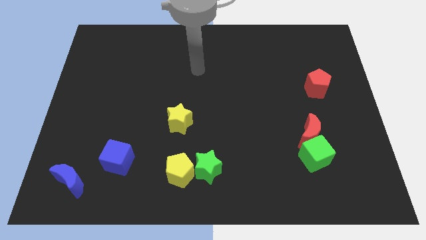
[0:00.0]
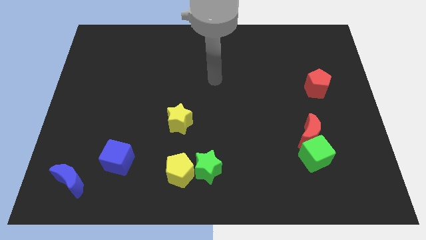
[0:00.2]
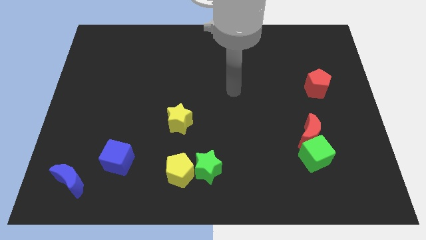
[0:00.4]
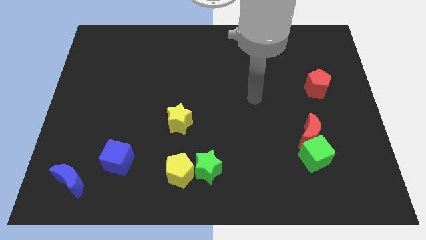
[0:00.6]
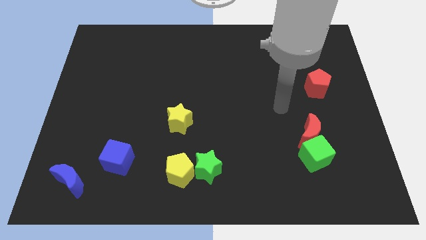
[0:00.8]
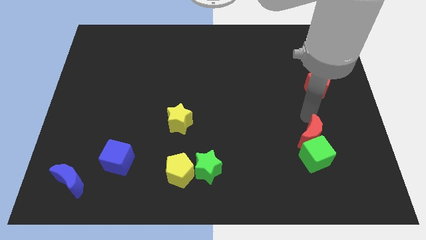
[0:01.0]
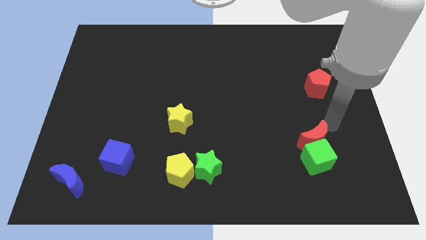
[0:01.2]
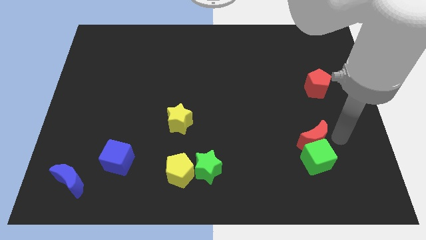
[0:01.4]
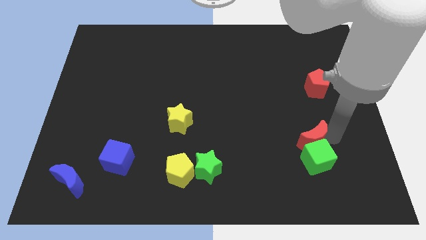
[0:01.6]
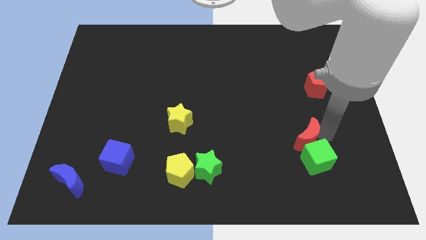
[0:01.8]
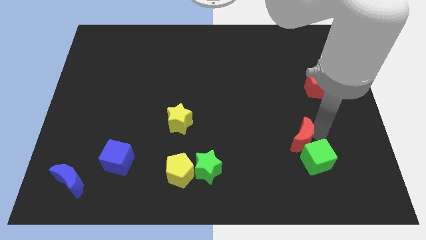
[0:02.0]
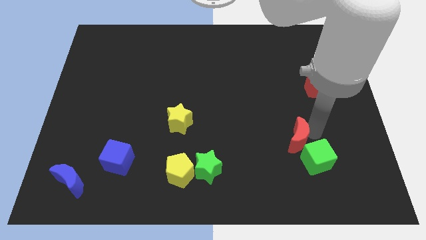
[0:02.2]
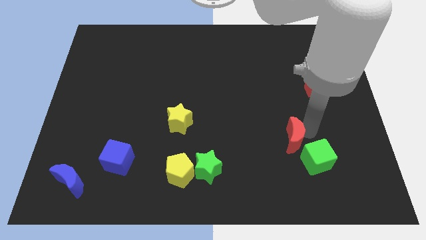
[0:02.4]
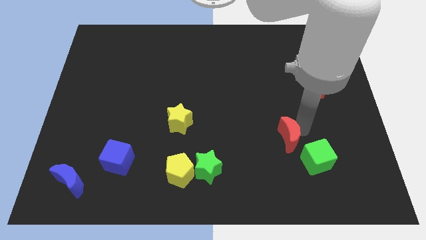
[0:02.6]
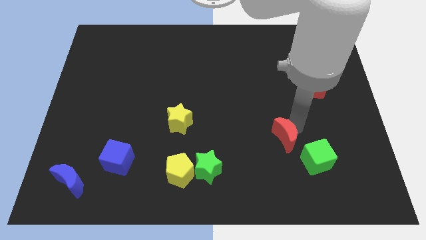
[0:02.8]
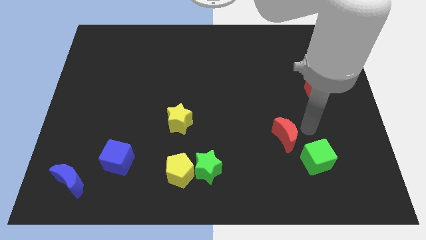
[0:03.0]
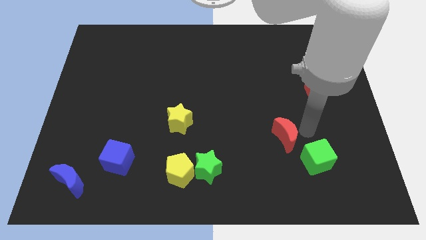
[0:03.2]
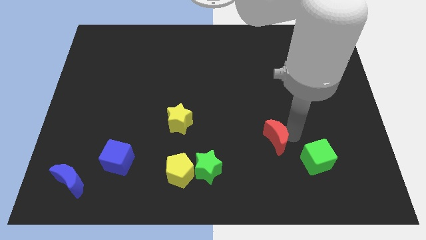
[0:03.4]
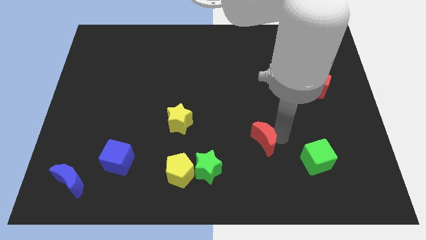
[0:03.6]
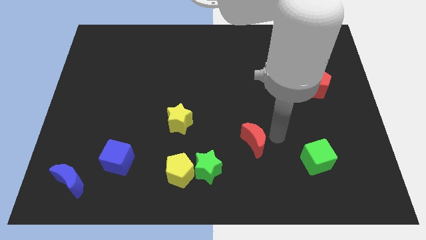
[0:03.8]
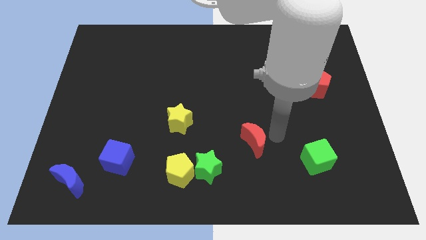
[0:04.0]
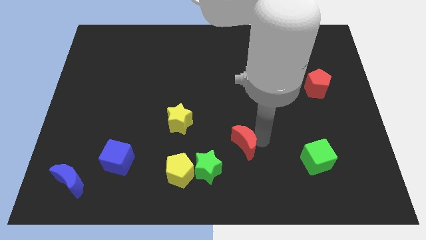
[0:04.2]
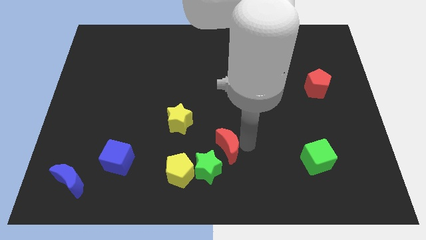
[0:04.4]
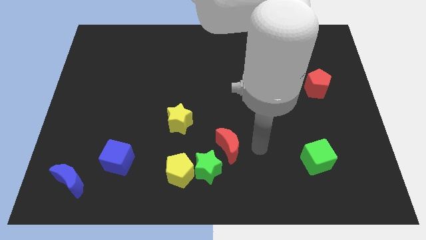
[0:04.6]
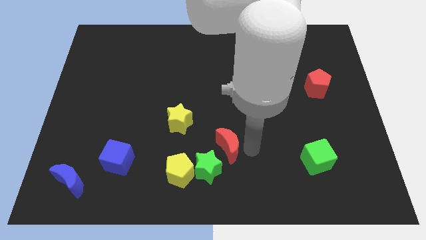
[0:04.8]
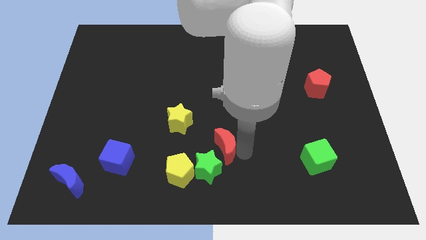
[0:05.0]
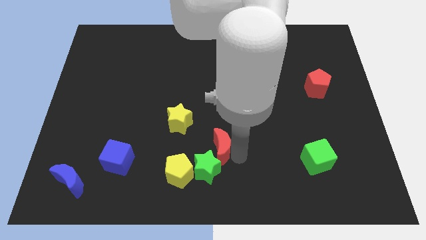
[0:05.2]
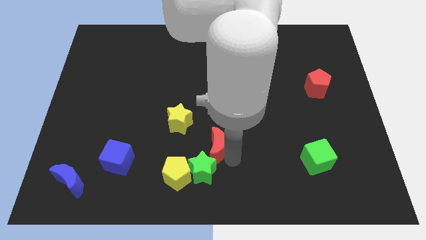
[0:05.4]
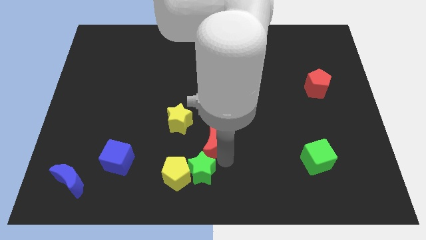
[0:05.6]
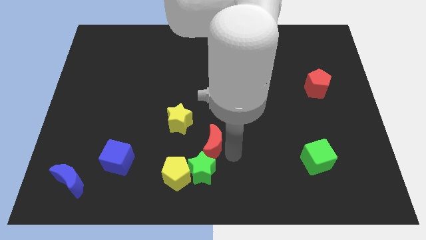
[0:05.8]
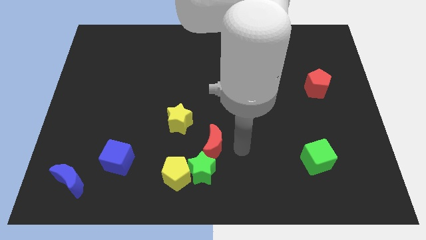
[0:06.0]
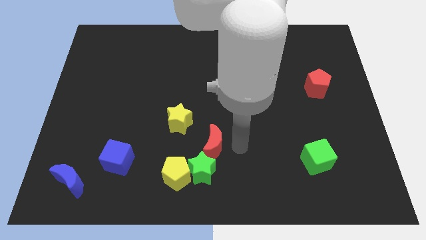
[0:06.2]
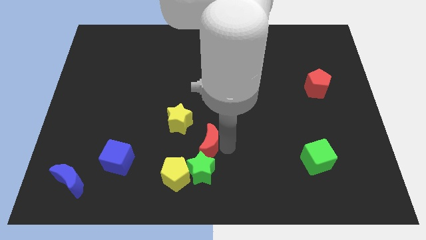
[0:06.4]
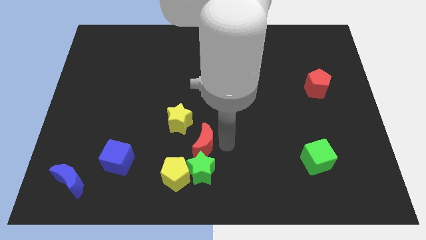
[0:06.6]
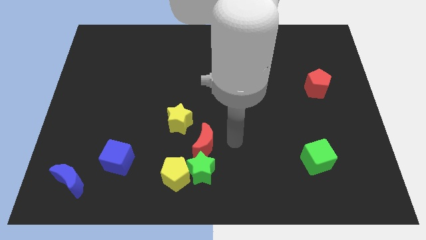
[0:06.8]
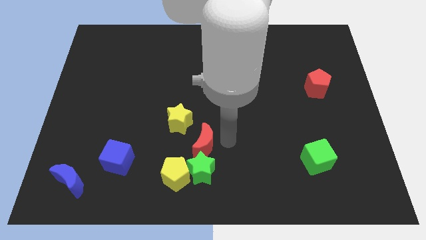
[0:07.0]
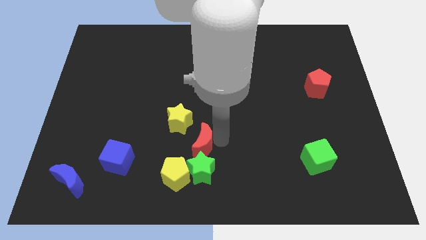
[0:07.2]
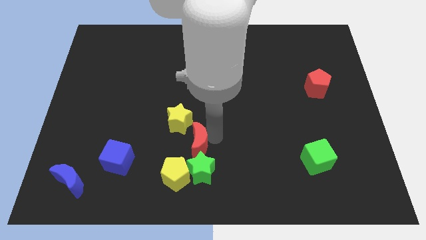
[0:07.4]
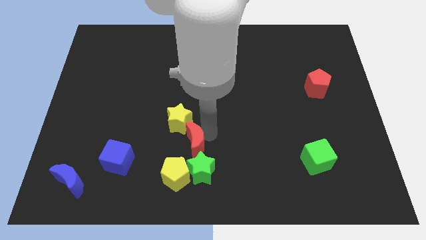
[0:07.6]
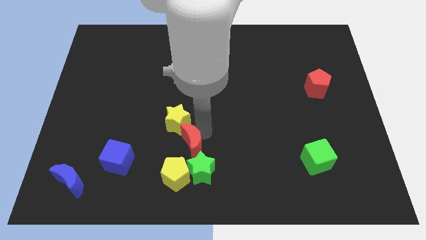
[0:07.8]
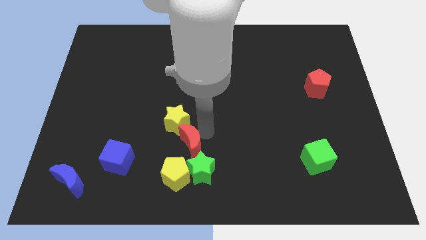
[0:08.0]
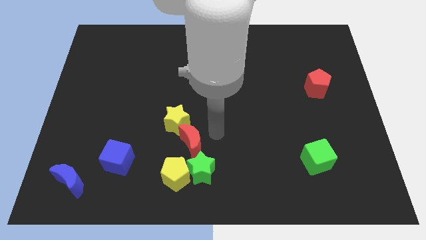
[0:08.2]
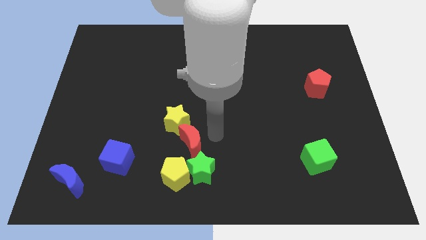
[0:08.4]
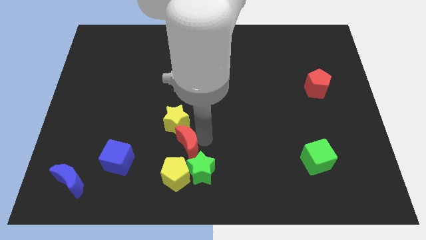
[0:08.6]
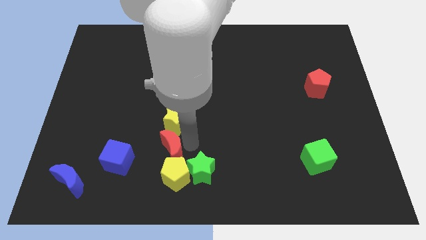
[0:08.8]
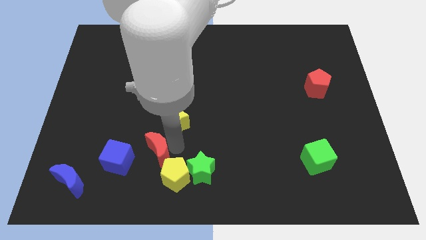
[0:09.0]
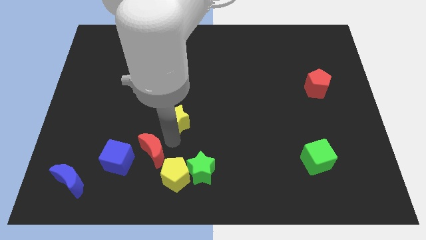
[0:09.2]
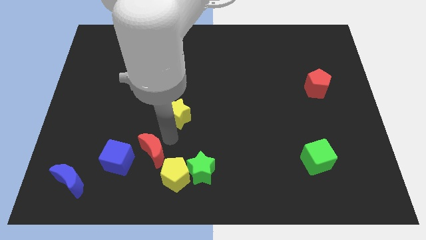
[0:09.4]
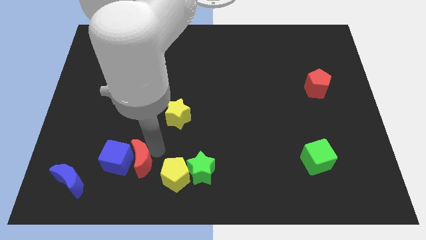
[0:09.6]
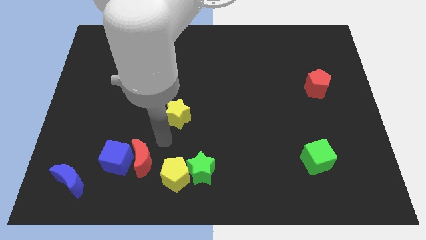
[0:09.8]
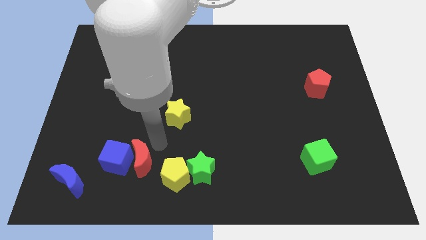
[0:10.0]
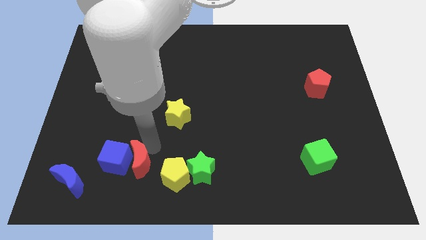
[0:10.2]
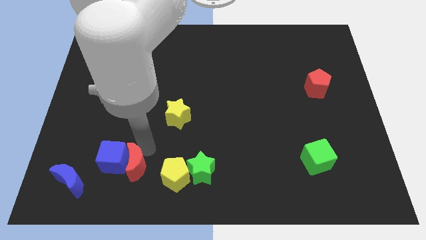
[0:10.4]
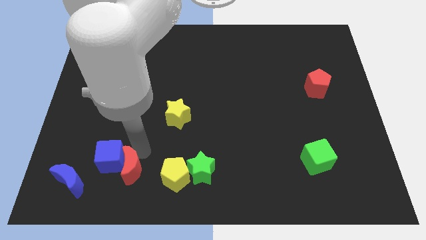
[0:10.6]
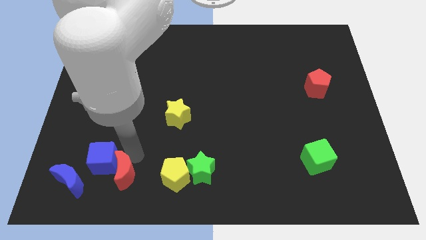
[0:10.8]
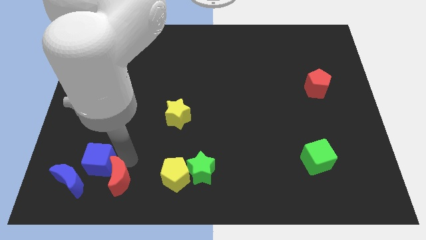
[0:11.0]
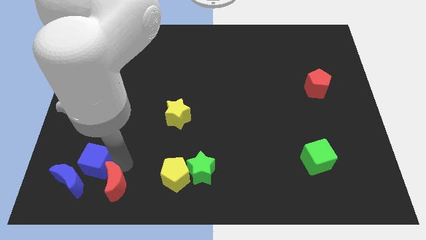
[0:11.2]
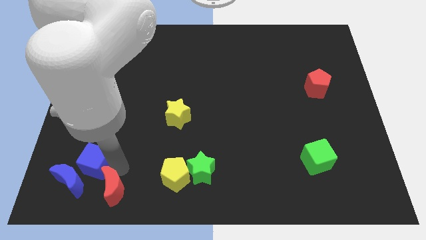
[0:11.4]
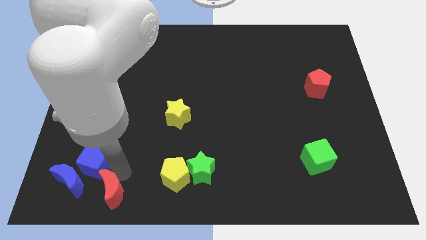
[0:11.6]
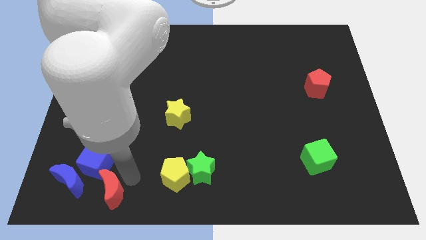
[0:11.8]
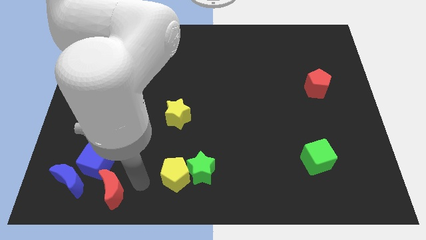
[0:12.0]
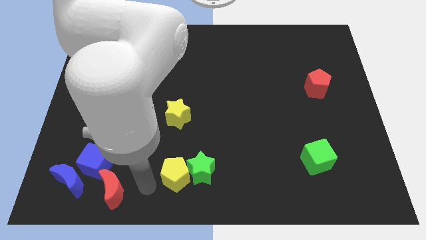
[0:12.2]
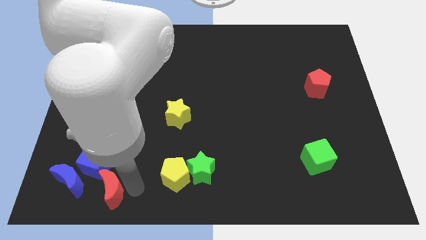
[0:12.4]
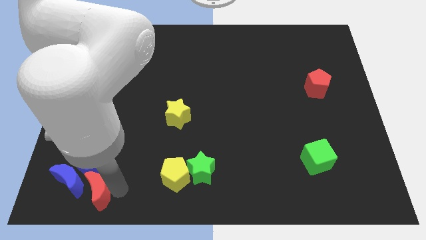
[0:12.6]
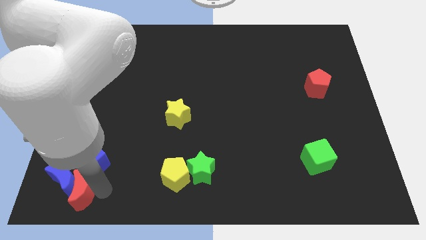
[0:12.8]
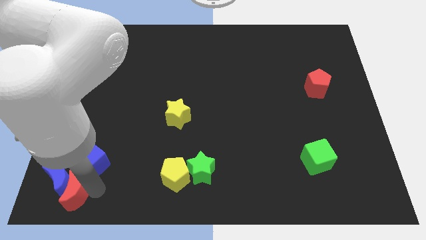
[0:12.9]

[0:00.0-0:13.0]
put the red moon to the bottom left
